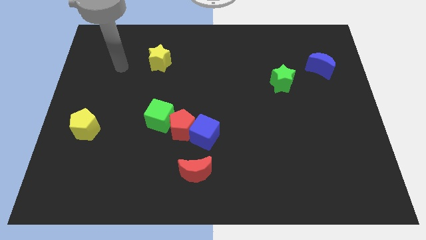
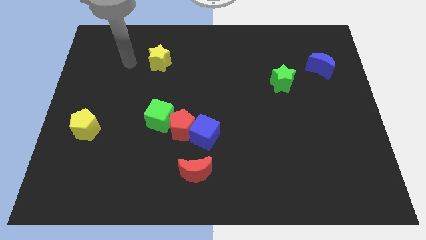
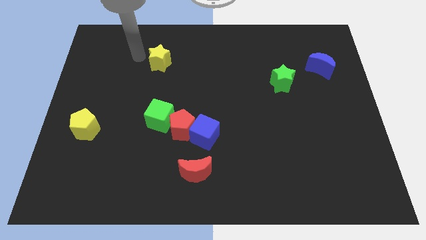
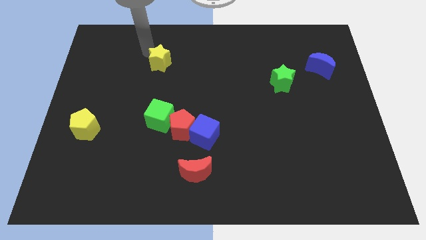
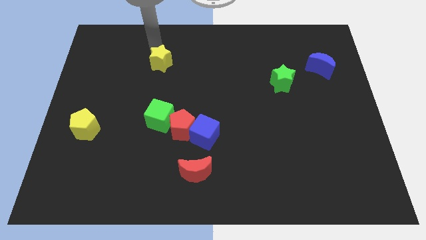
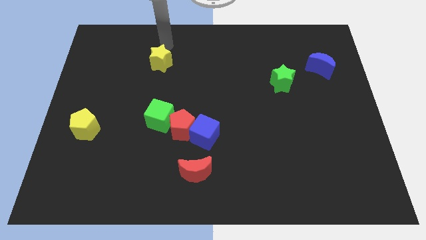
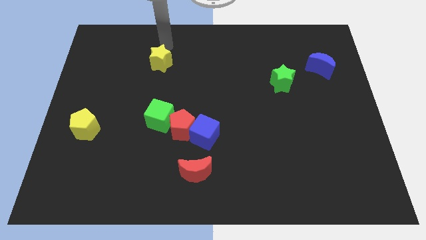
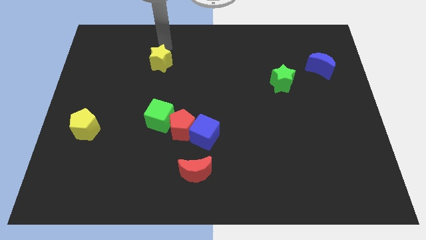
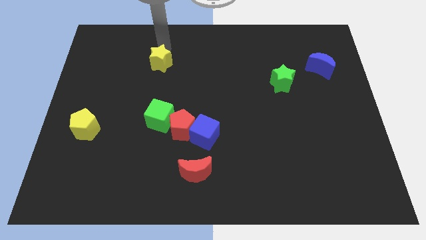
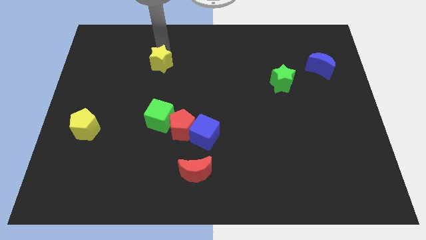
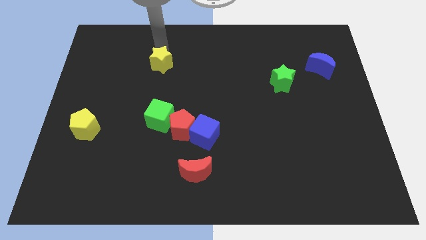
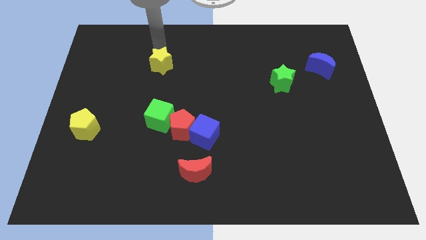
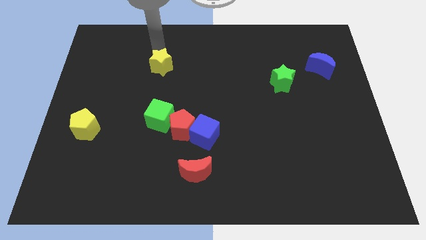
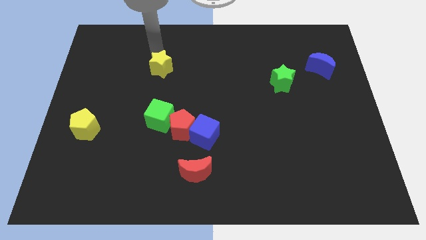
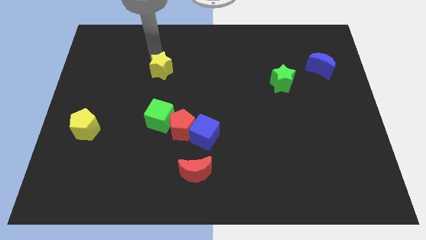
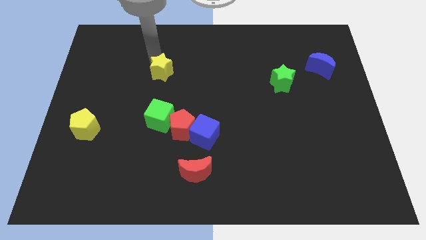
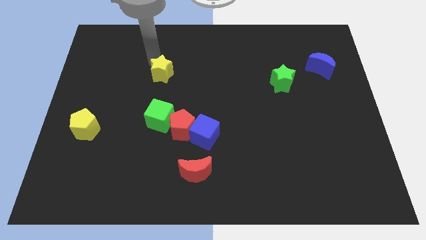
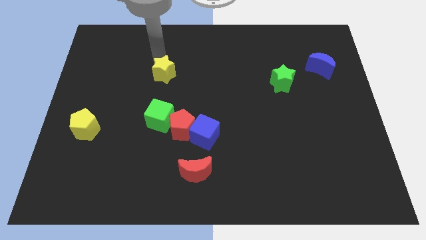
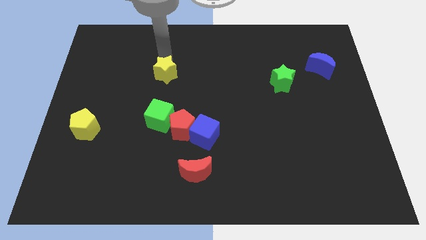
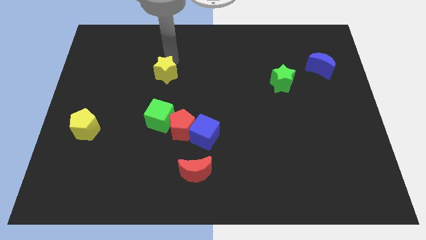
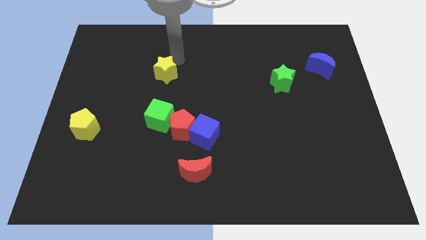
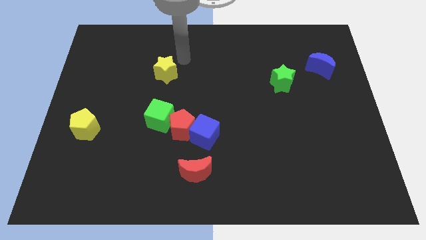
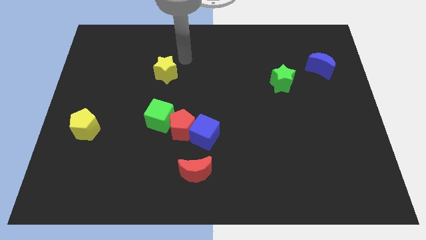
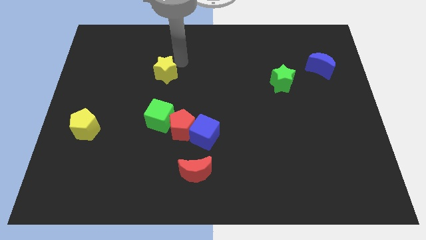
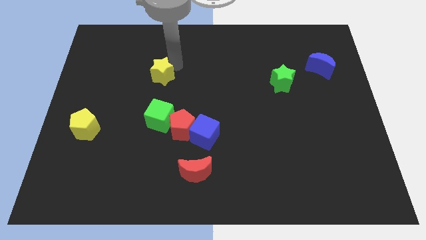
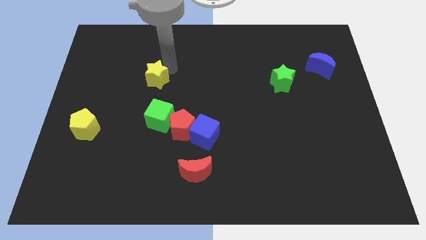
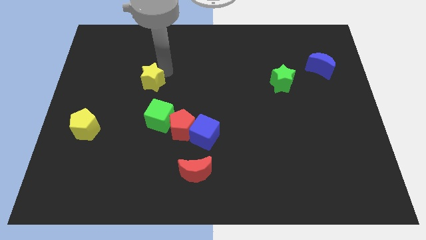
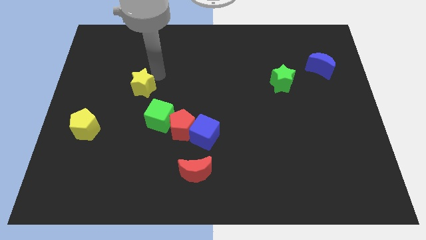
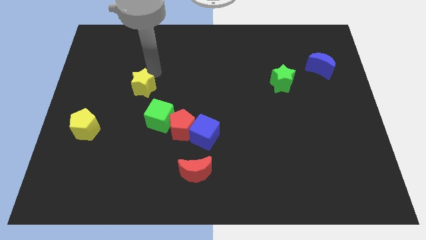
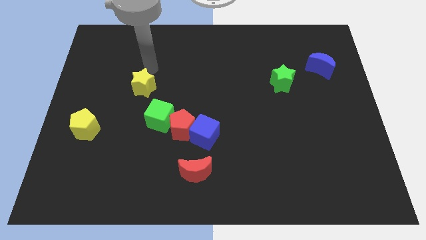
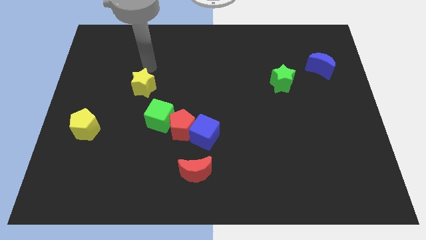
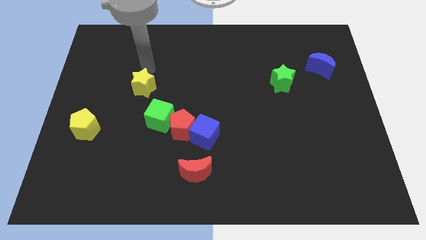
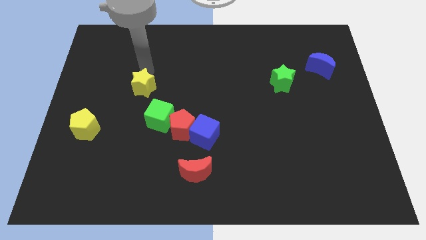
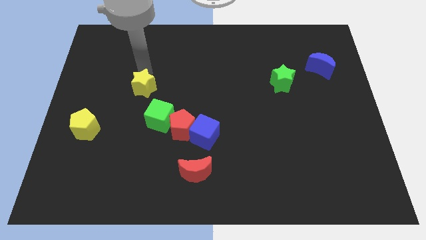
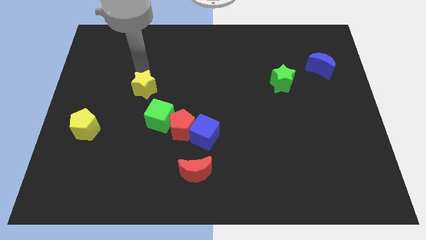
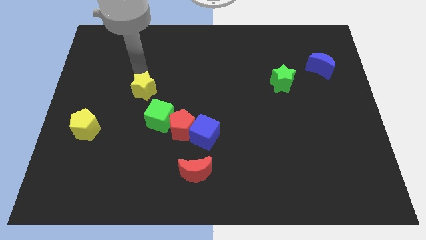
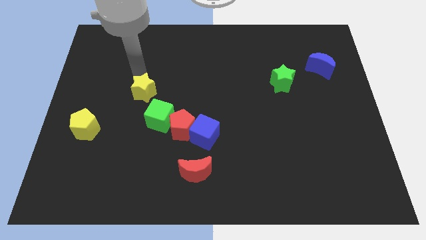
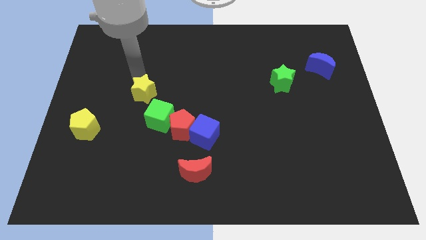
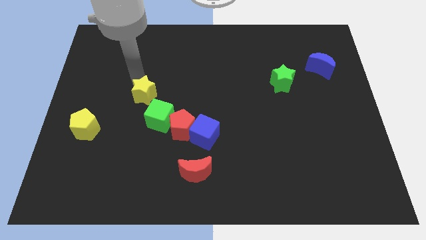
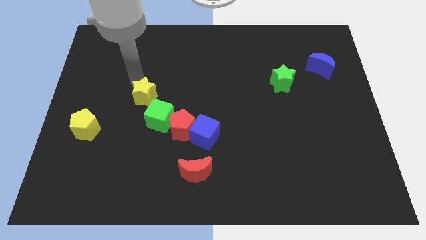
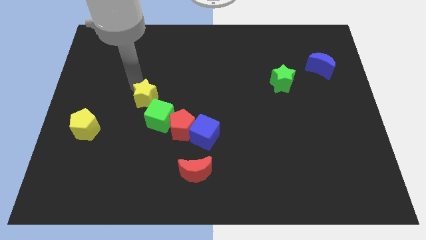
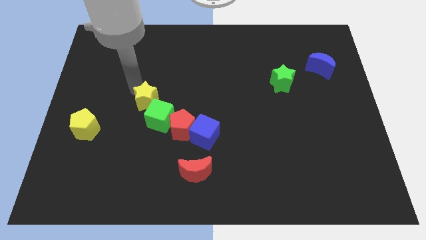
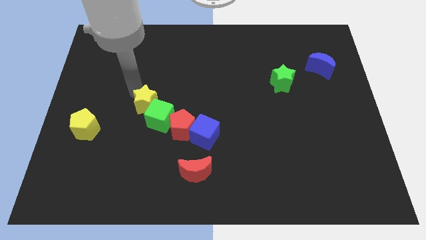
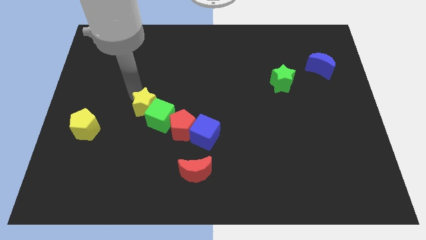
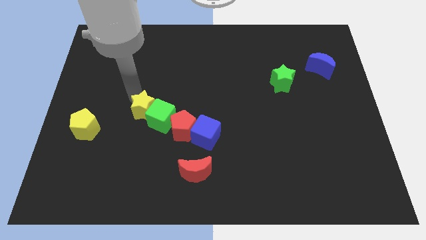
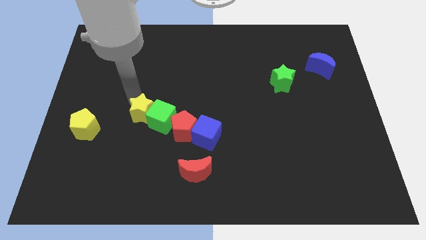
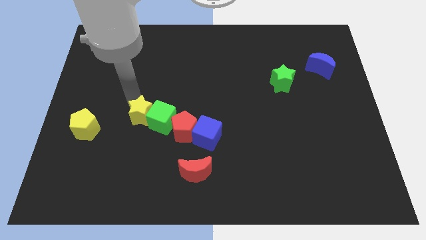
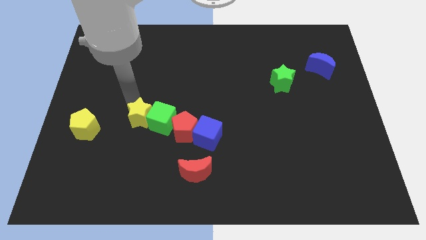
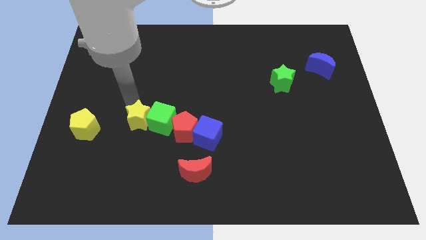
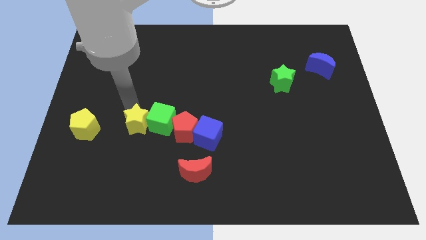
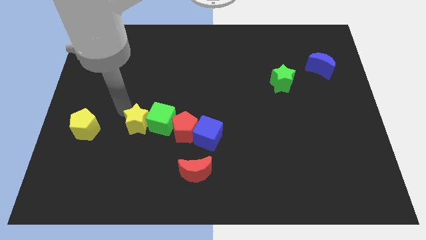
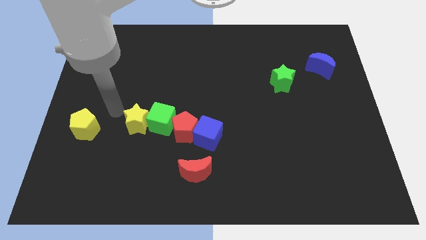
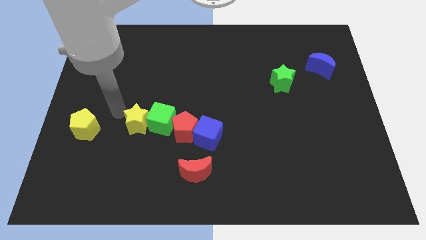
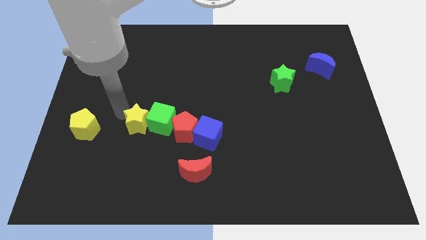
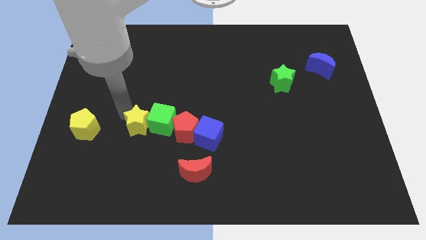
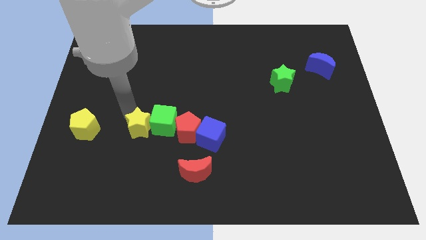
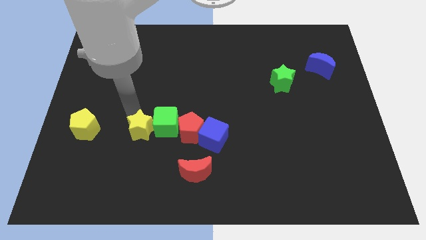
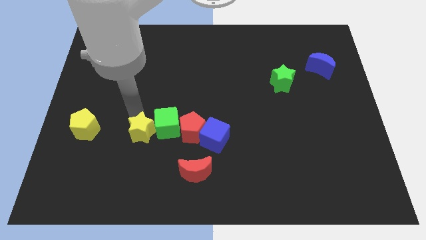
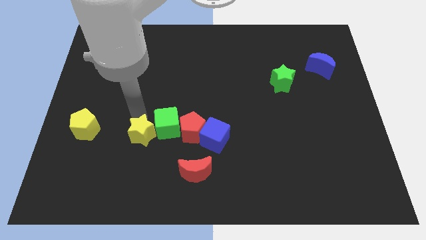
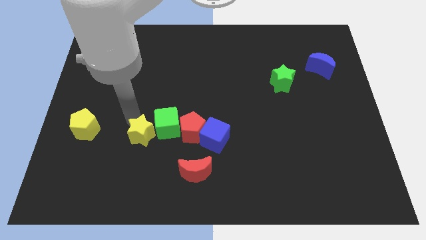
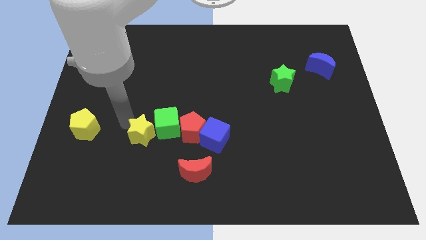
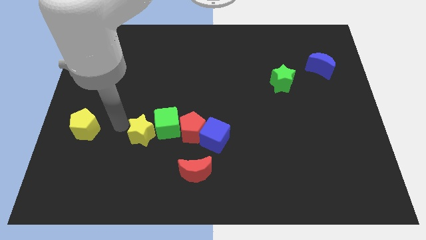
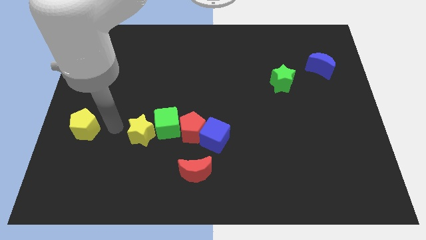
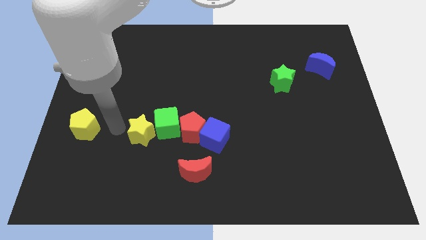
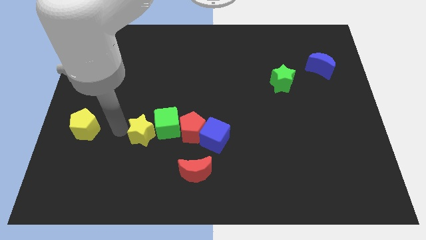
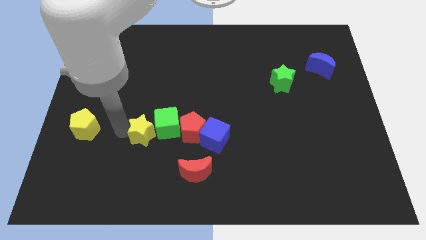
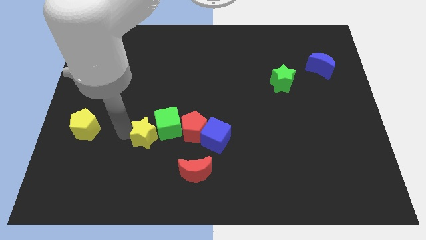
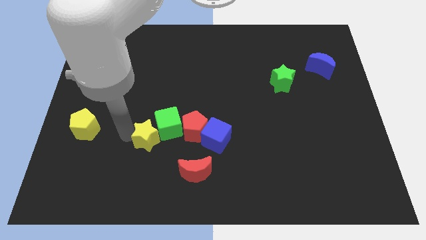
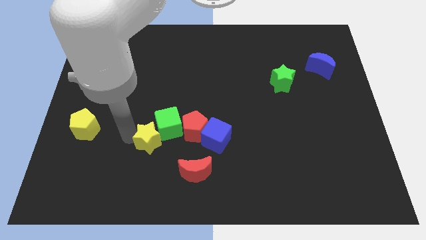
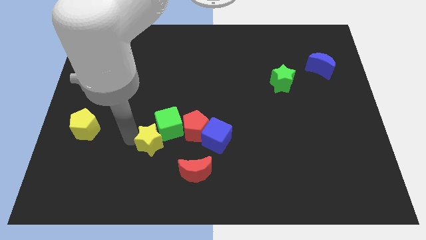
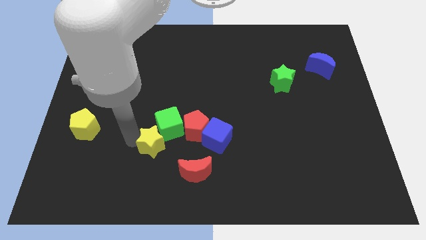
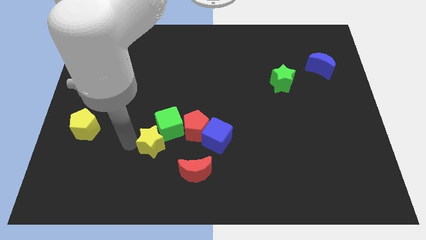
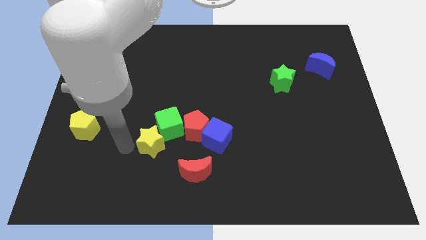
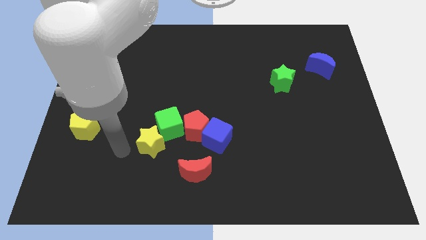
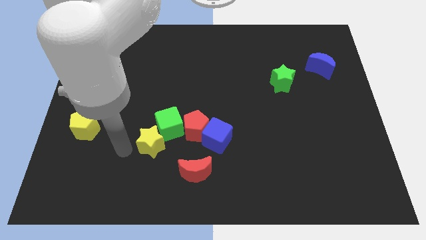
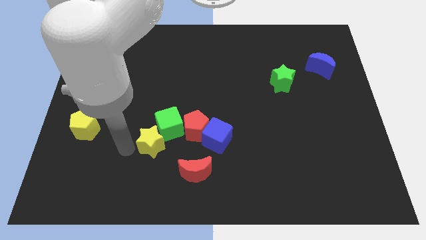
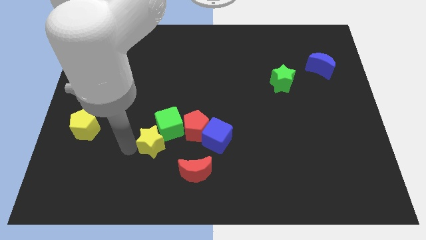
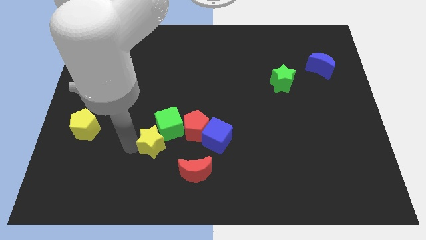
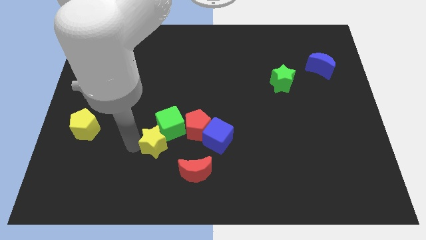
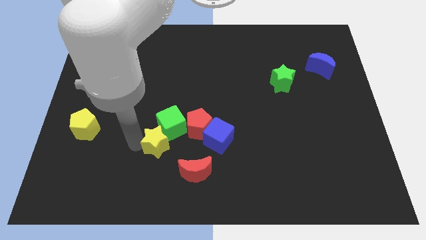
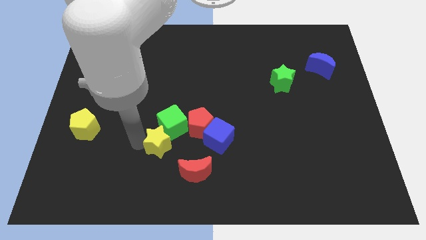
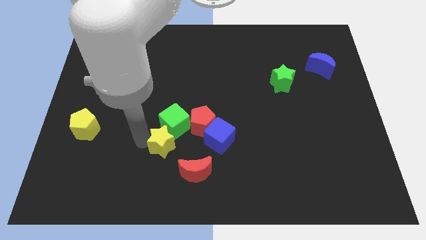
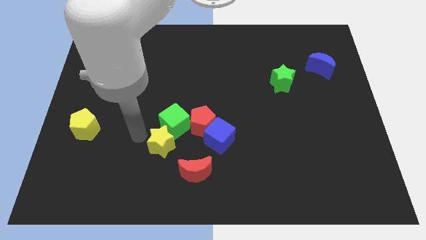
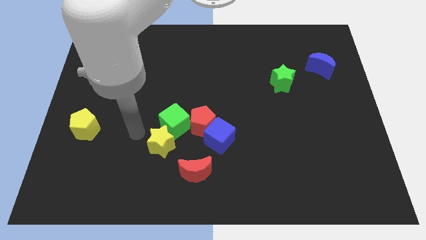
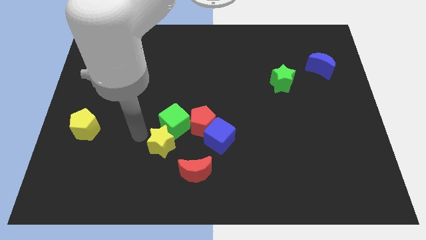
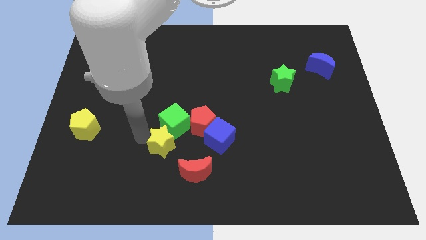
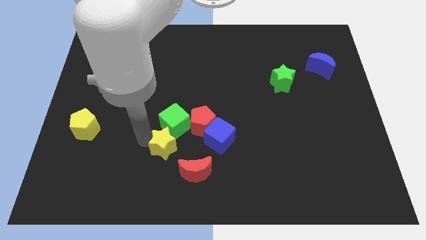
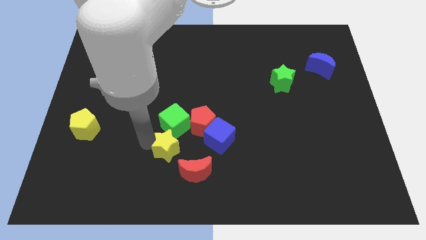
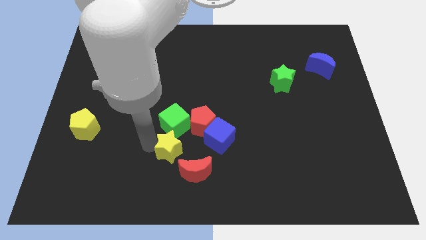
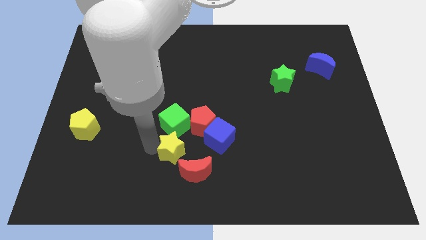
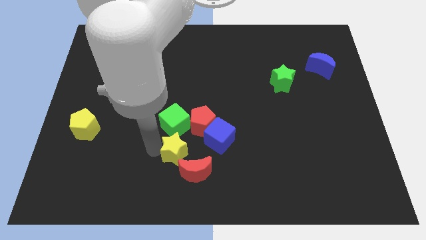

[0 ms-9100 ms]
push the yellow star to the bottom left side of the blue cube
